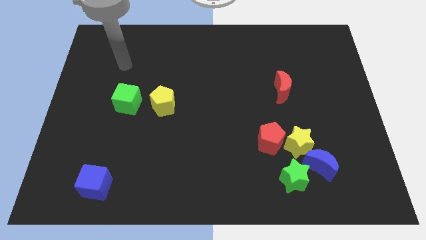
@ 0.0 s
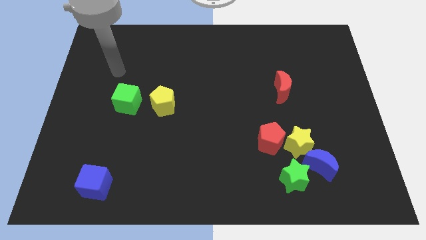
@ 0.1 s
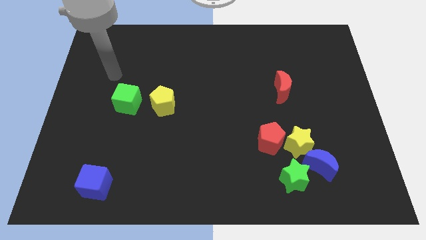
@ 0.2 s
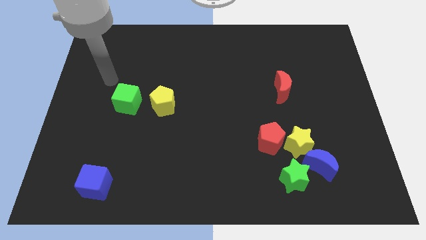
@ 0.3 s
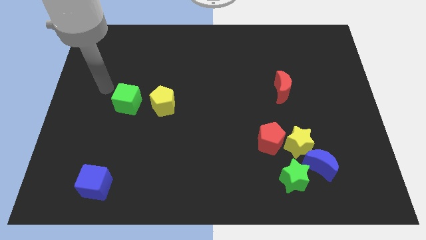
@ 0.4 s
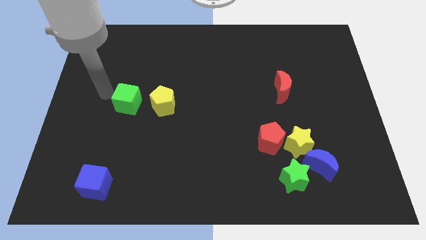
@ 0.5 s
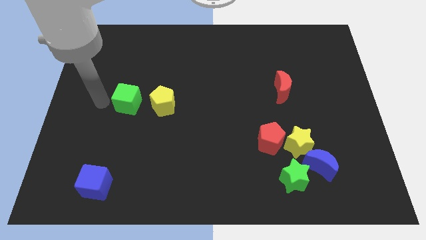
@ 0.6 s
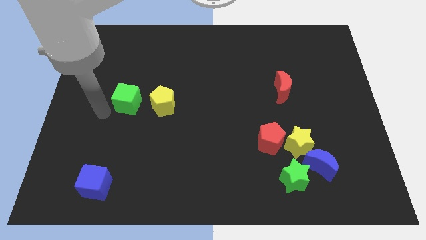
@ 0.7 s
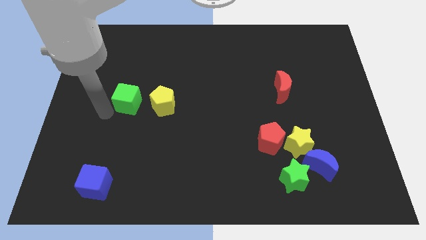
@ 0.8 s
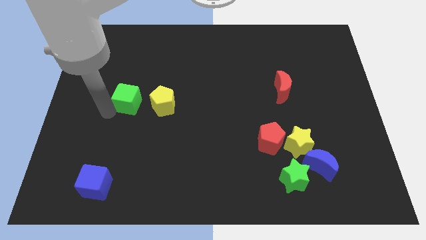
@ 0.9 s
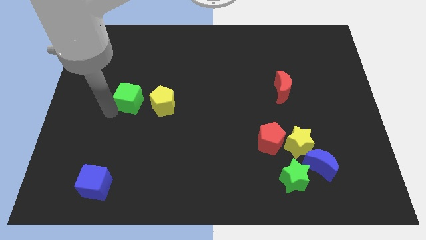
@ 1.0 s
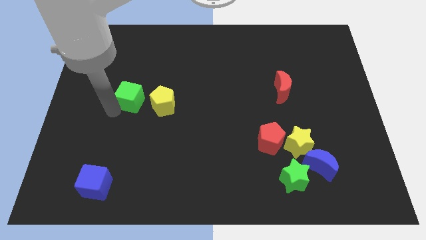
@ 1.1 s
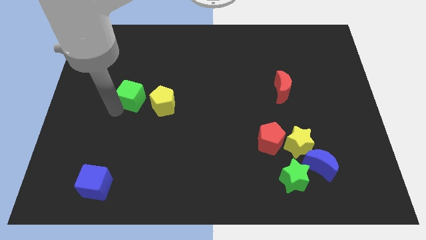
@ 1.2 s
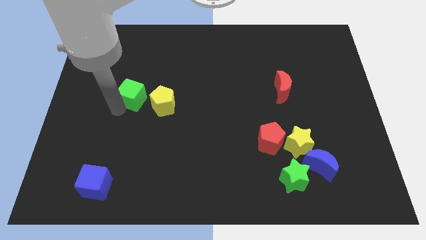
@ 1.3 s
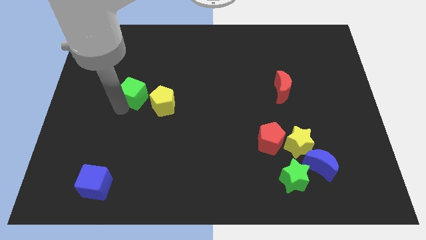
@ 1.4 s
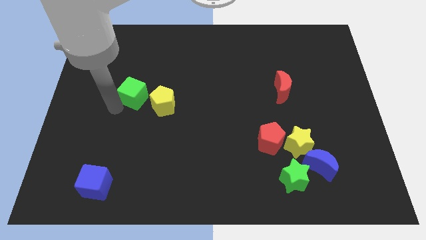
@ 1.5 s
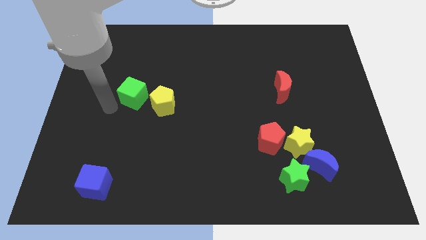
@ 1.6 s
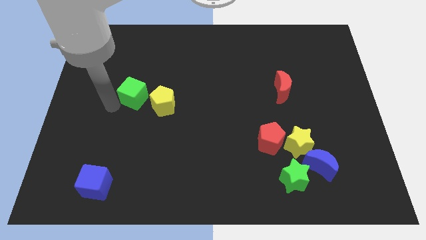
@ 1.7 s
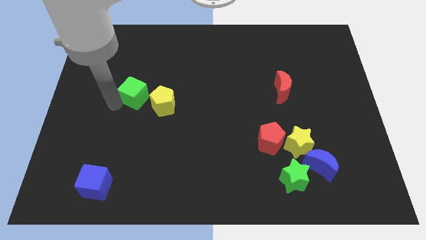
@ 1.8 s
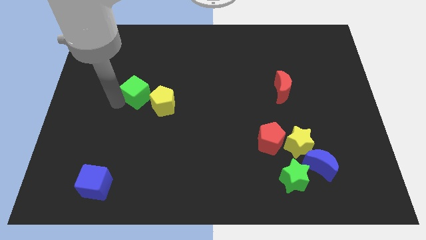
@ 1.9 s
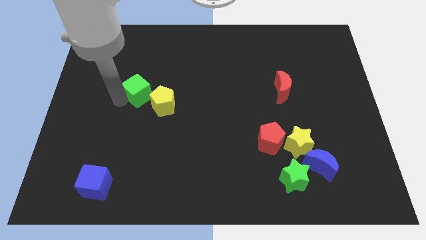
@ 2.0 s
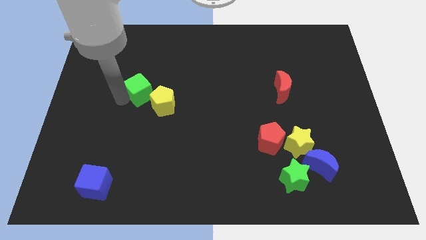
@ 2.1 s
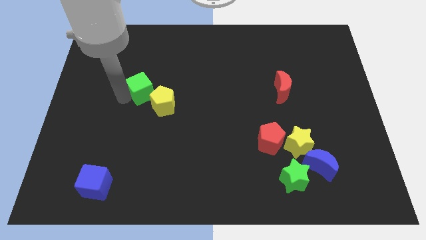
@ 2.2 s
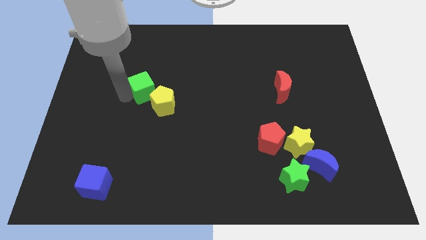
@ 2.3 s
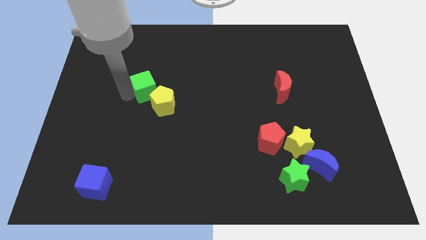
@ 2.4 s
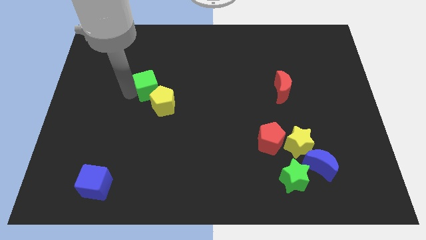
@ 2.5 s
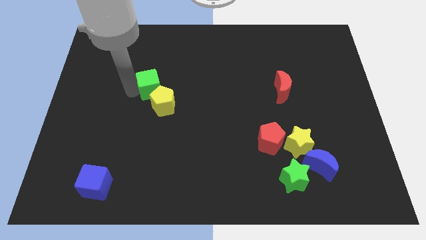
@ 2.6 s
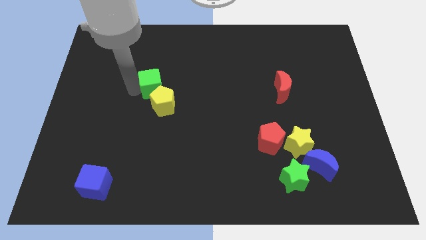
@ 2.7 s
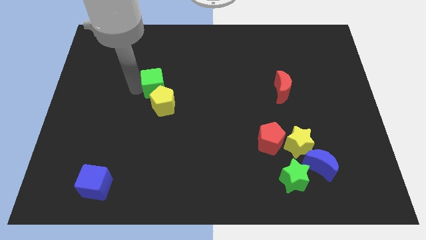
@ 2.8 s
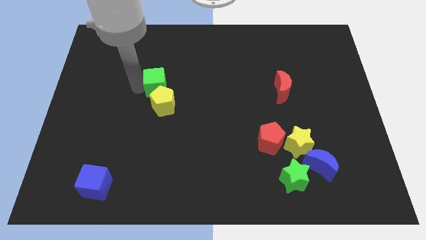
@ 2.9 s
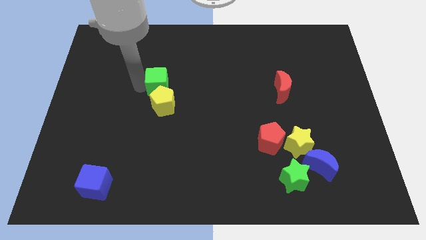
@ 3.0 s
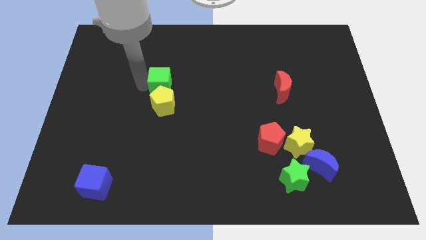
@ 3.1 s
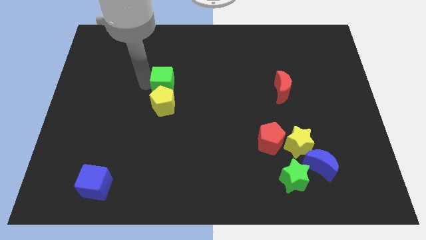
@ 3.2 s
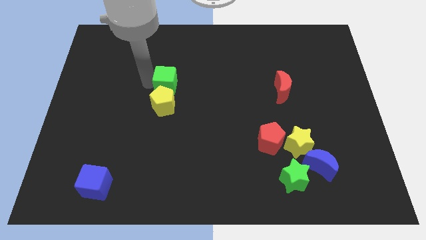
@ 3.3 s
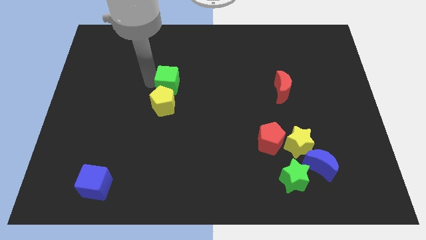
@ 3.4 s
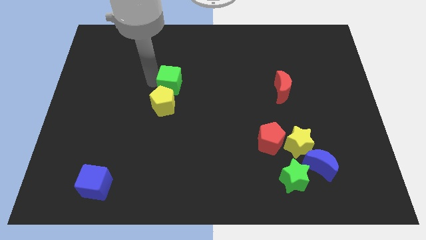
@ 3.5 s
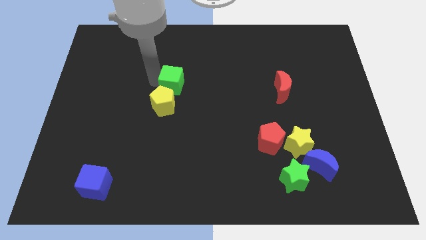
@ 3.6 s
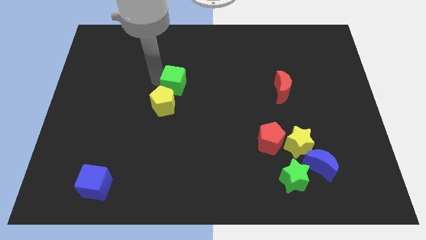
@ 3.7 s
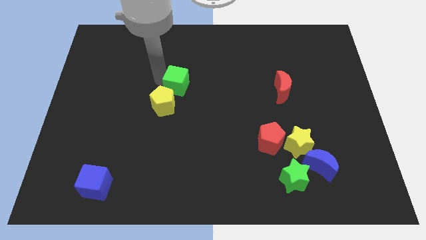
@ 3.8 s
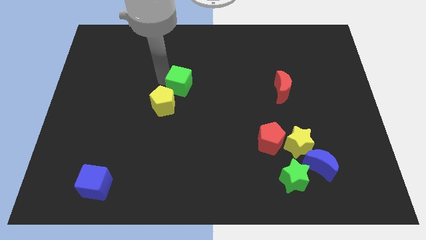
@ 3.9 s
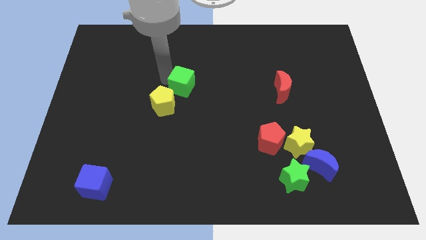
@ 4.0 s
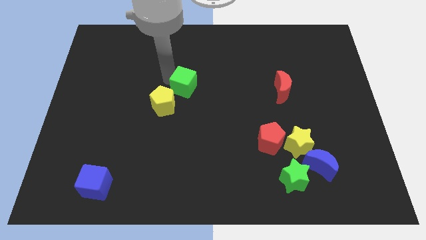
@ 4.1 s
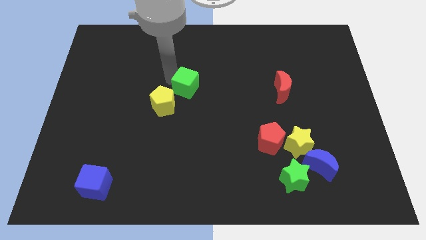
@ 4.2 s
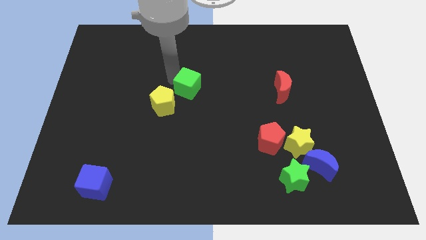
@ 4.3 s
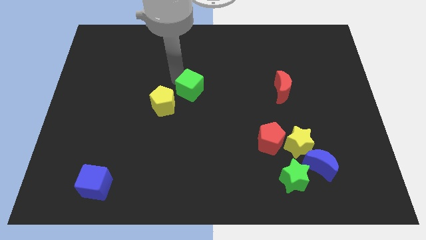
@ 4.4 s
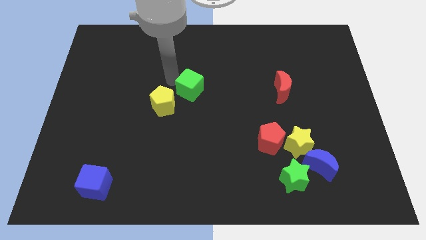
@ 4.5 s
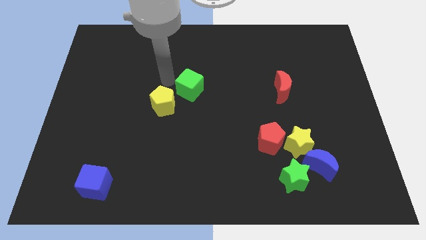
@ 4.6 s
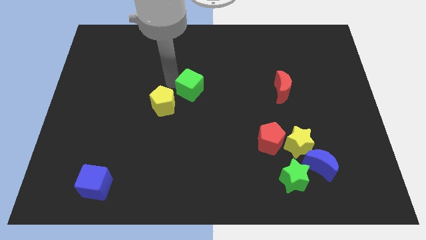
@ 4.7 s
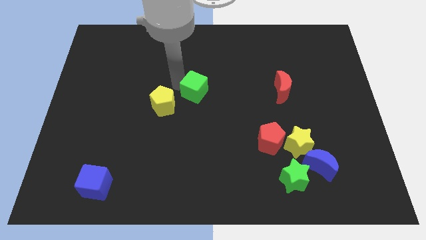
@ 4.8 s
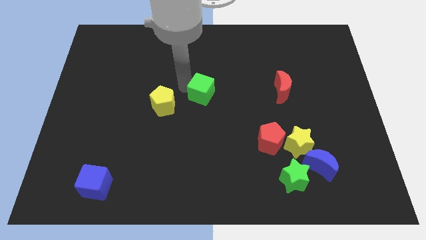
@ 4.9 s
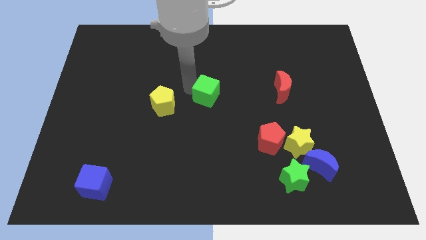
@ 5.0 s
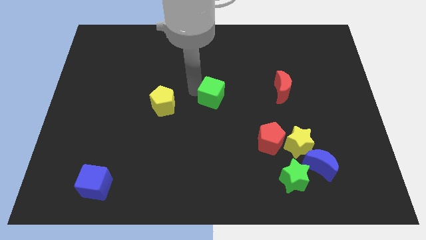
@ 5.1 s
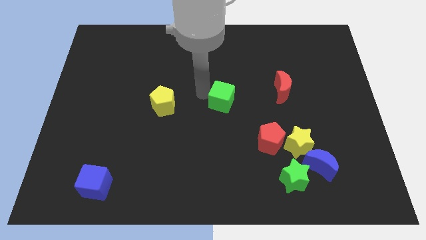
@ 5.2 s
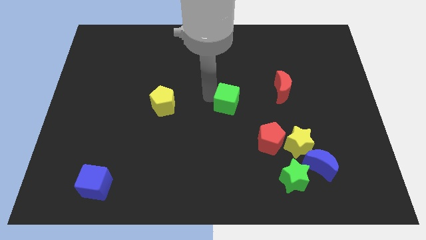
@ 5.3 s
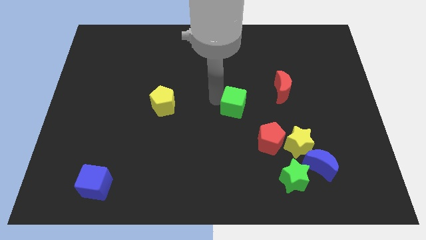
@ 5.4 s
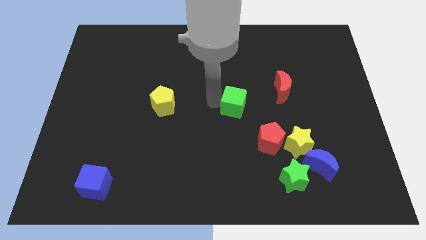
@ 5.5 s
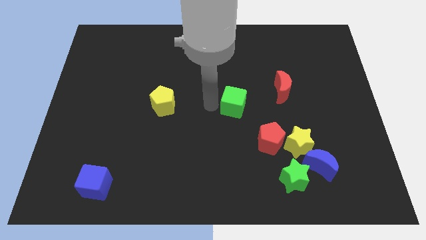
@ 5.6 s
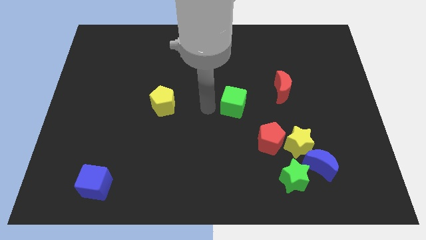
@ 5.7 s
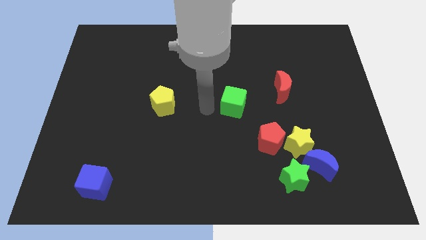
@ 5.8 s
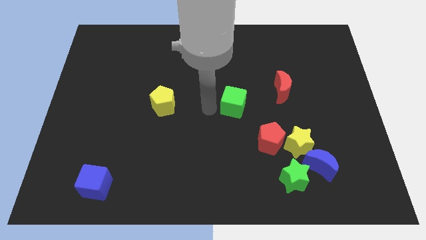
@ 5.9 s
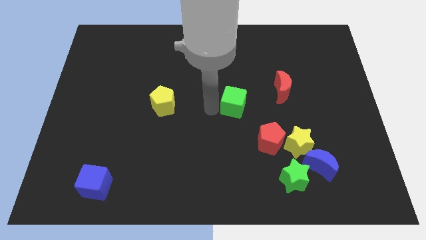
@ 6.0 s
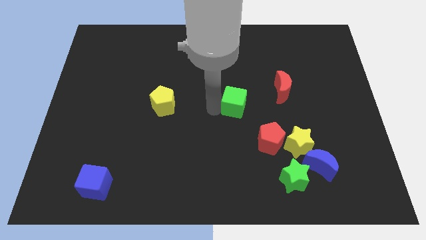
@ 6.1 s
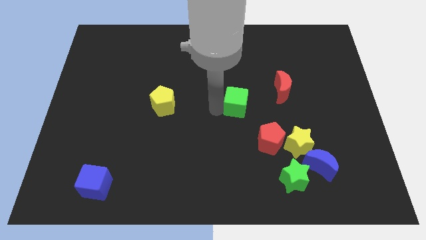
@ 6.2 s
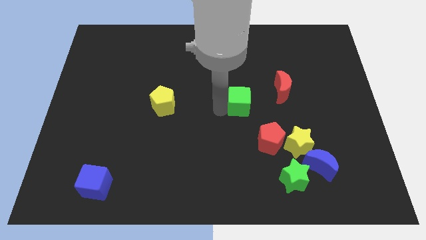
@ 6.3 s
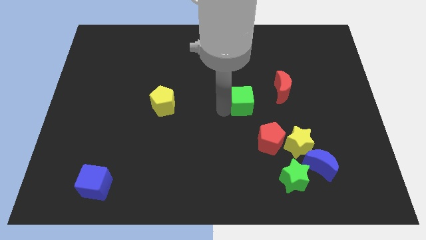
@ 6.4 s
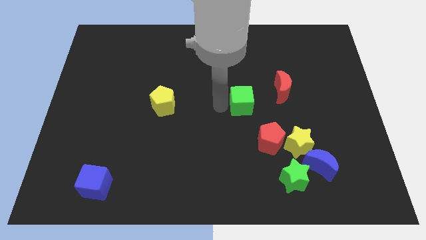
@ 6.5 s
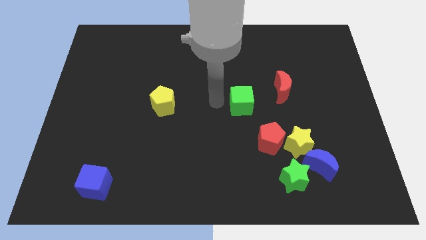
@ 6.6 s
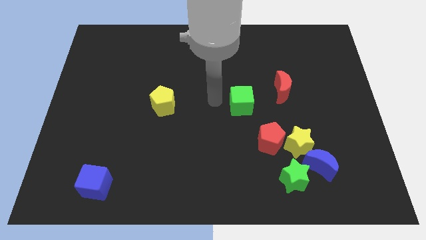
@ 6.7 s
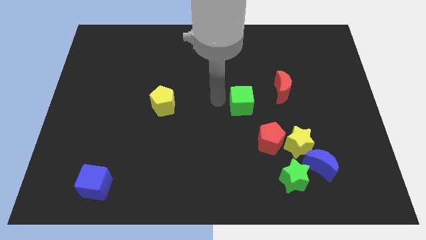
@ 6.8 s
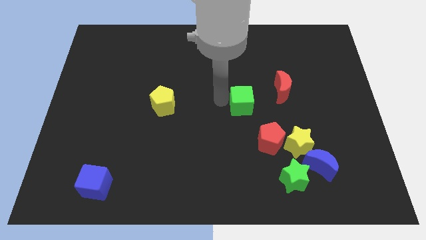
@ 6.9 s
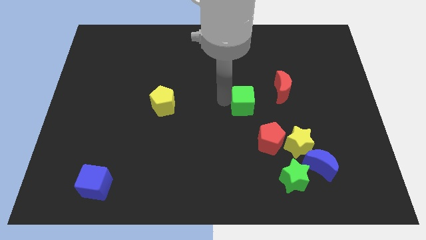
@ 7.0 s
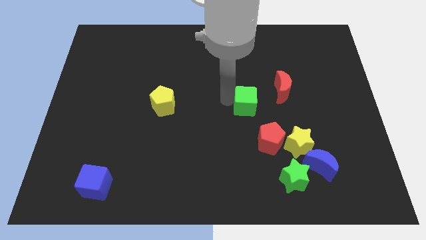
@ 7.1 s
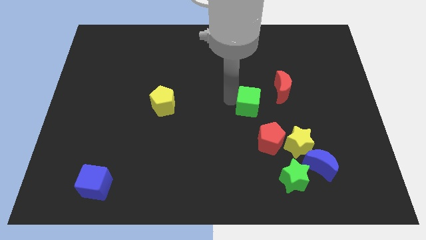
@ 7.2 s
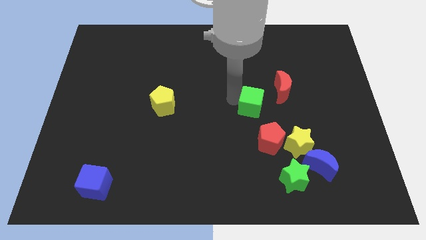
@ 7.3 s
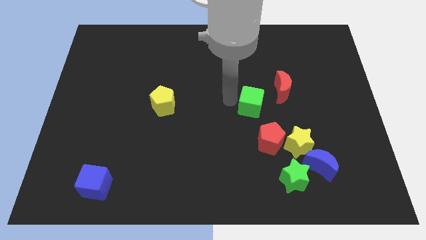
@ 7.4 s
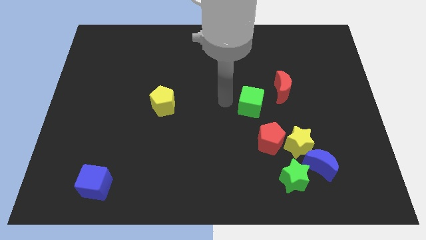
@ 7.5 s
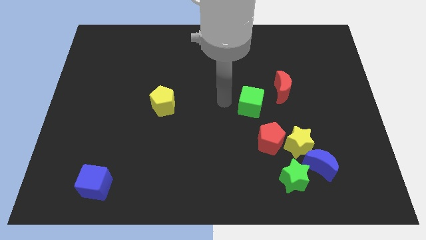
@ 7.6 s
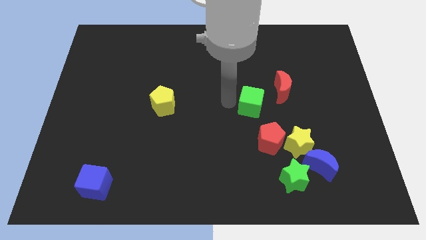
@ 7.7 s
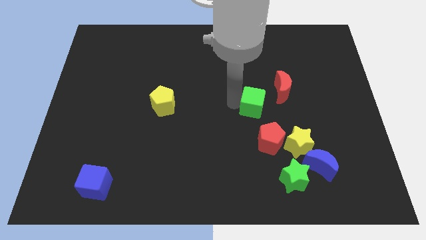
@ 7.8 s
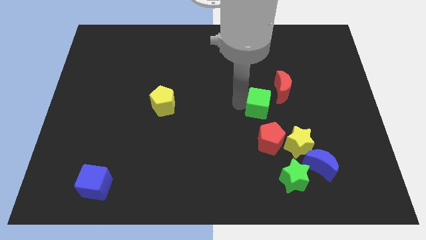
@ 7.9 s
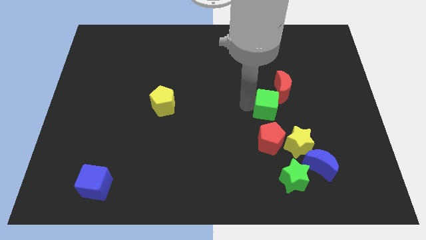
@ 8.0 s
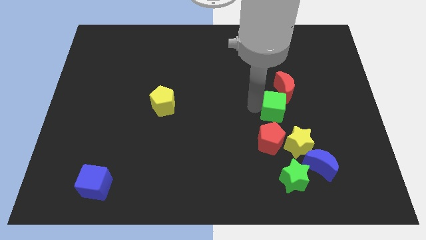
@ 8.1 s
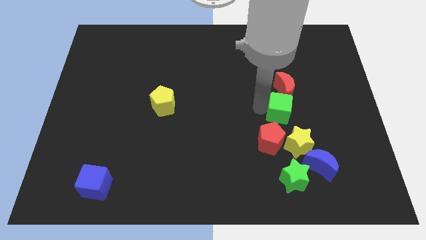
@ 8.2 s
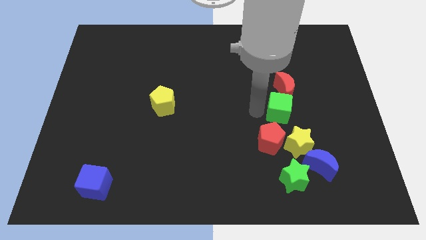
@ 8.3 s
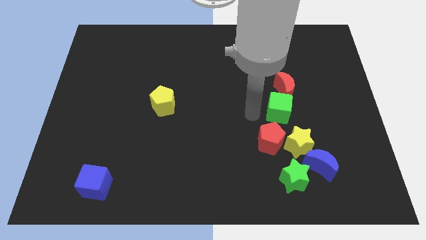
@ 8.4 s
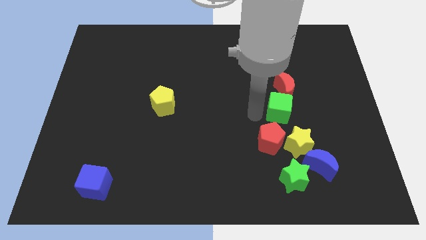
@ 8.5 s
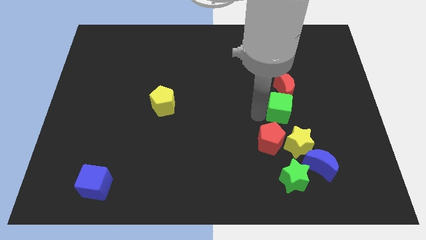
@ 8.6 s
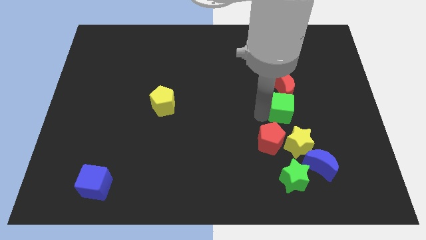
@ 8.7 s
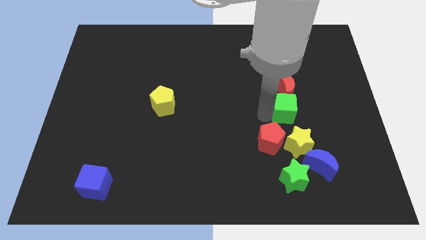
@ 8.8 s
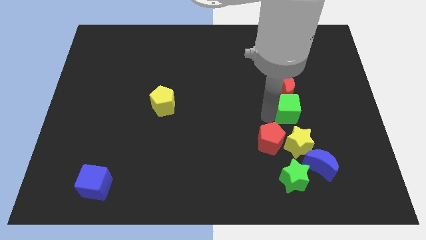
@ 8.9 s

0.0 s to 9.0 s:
move the green cube to the bottom right of the red moon
